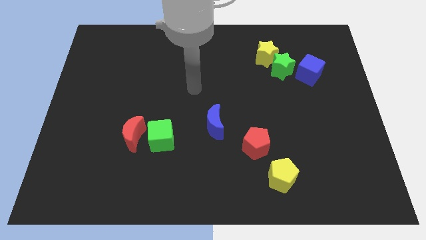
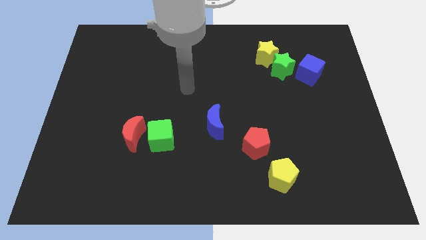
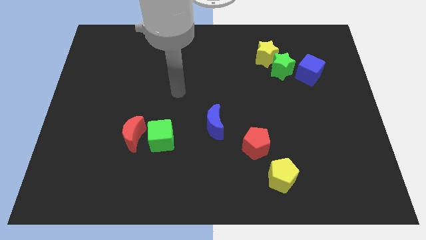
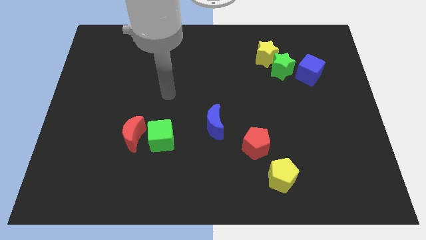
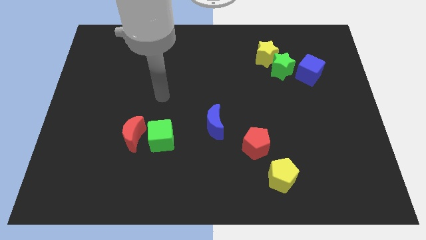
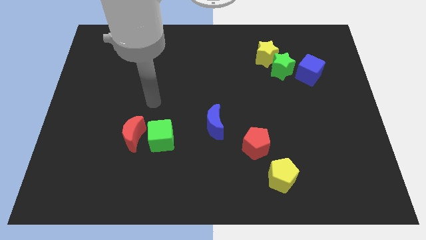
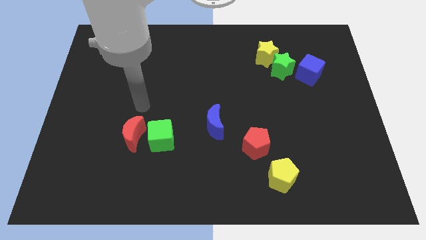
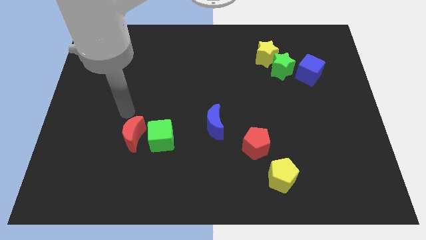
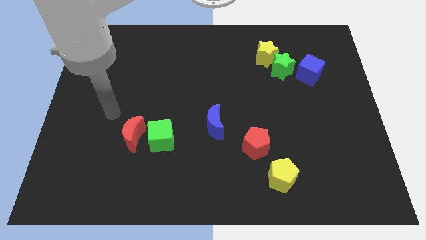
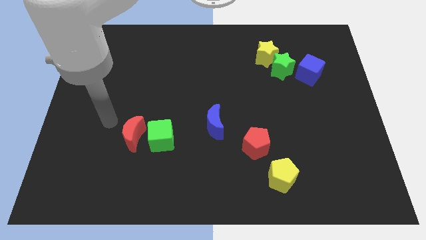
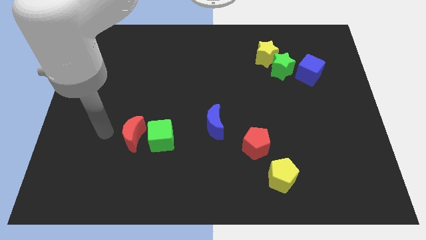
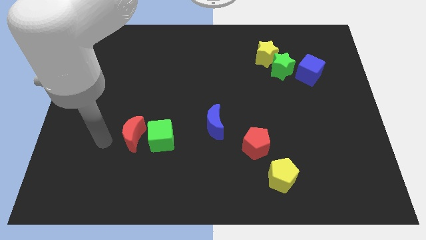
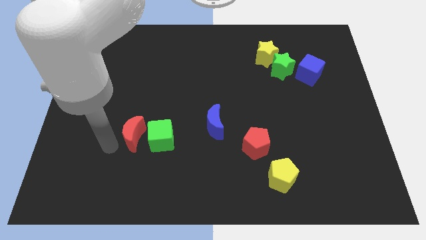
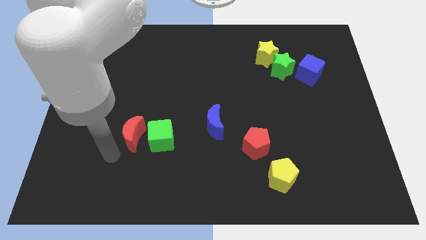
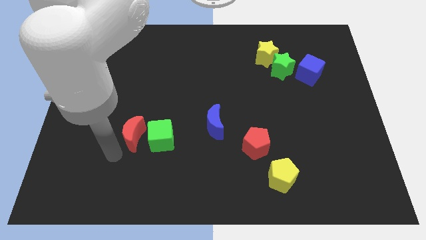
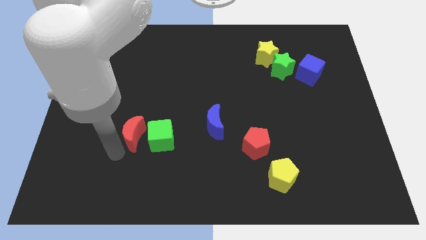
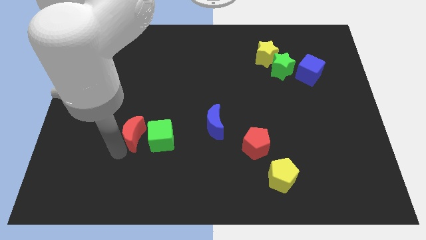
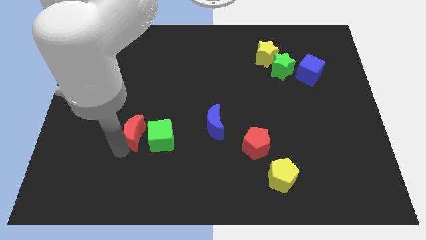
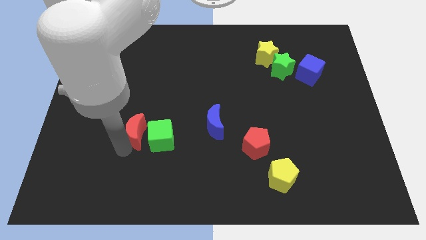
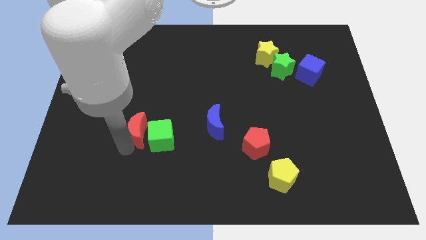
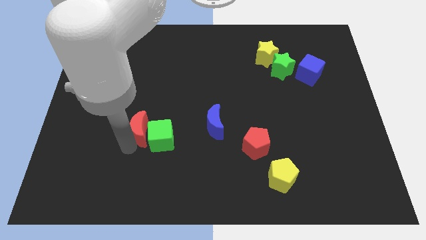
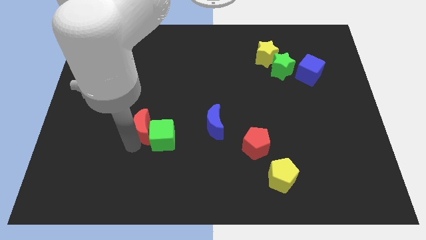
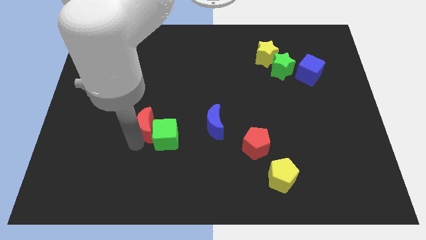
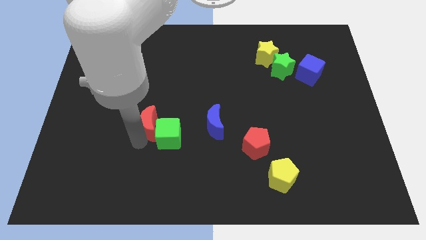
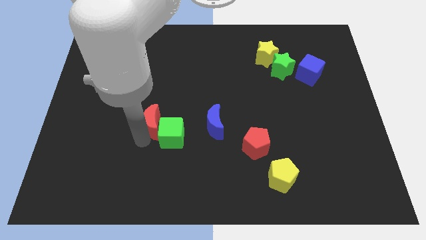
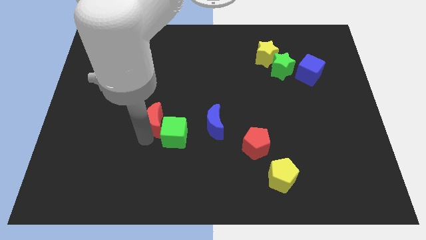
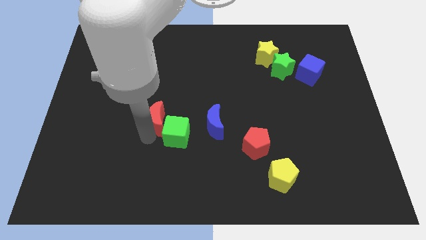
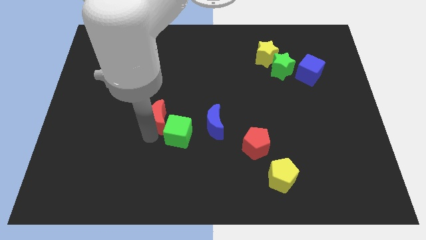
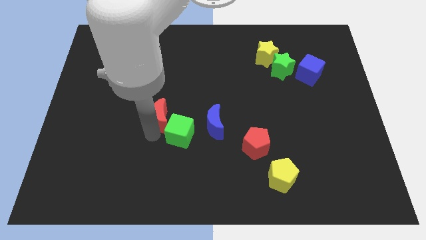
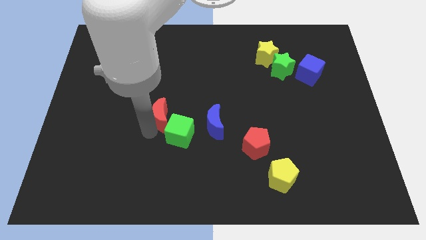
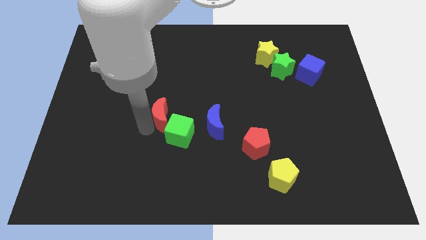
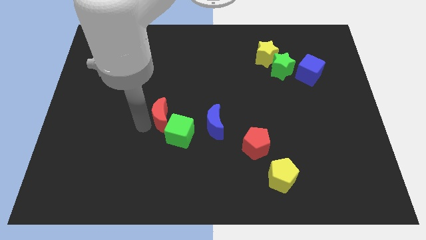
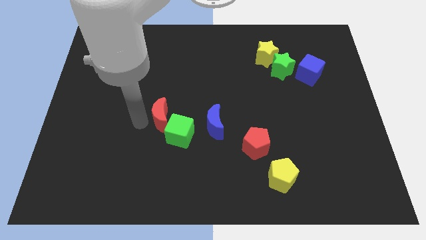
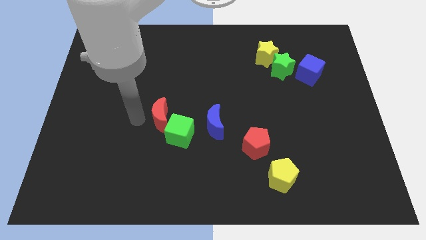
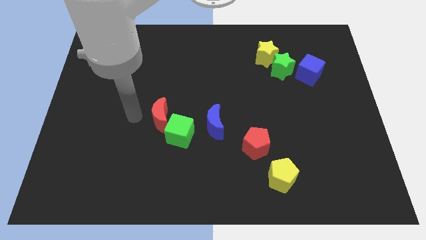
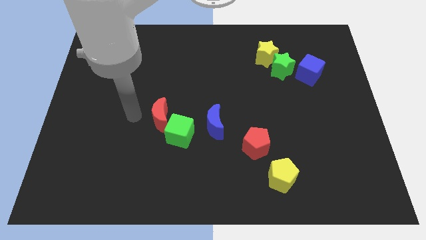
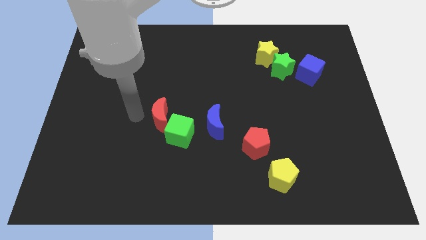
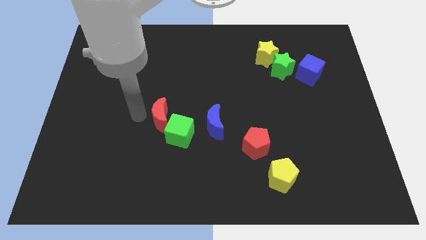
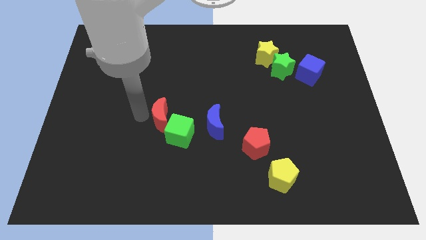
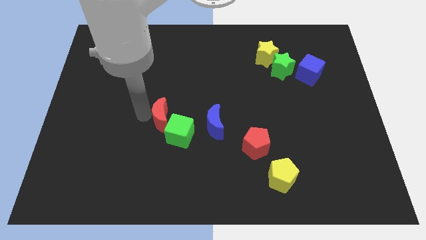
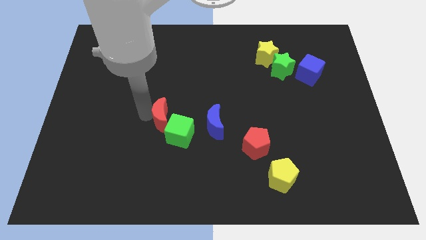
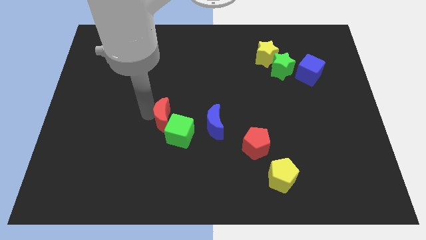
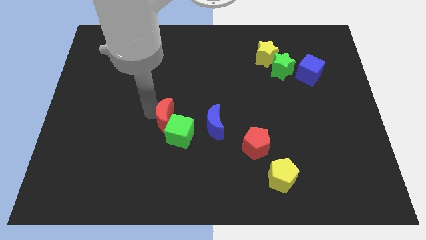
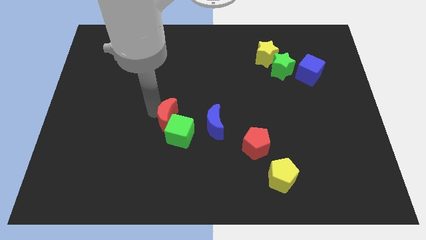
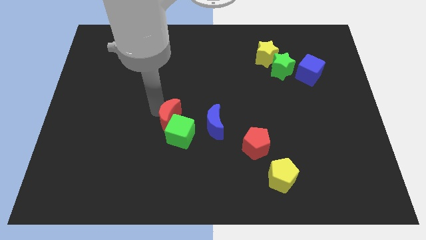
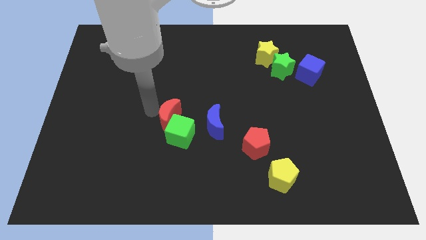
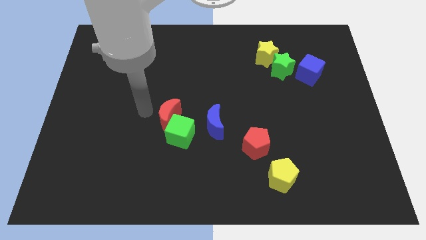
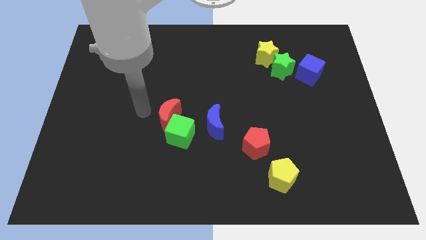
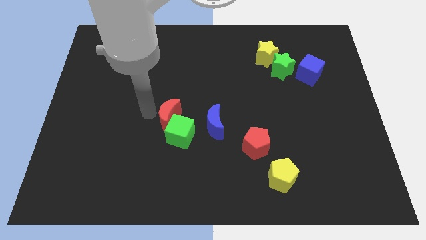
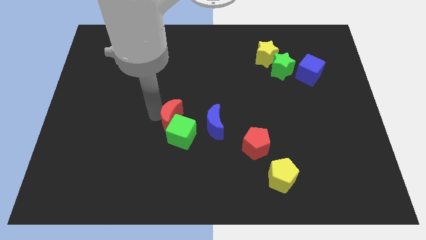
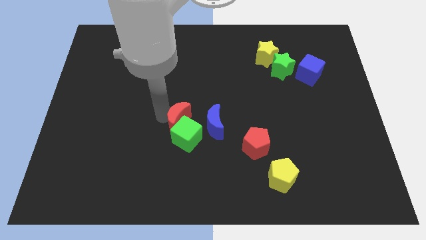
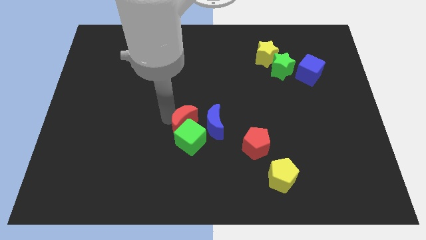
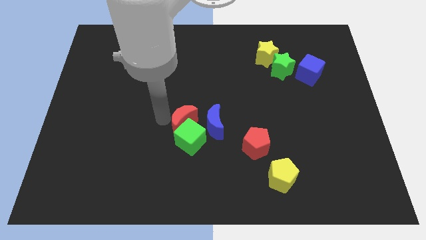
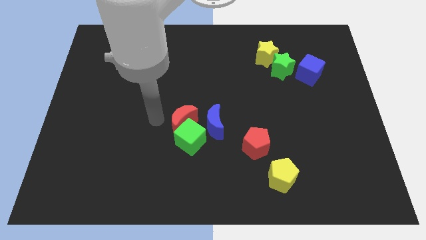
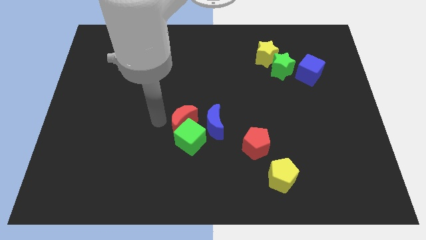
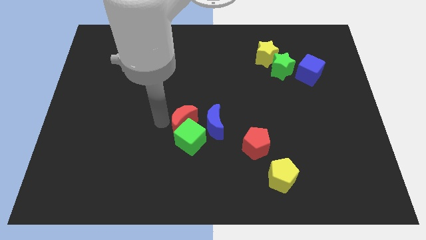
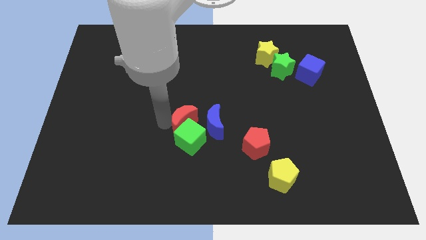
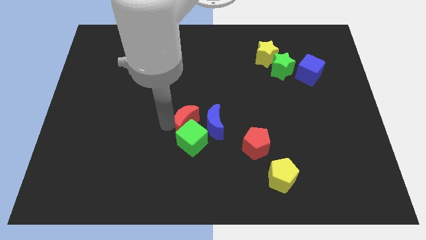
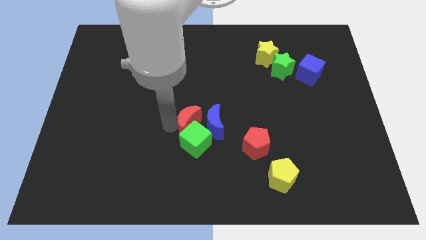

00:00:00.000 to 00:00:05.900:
push the red moon towards the blue moon

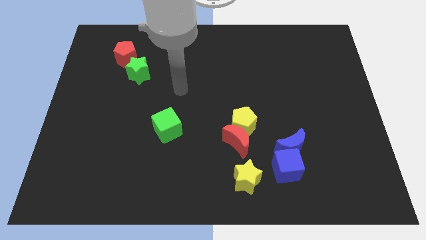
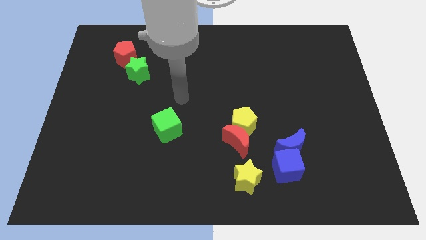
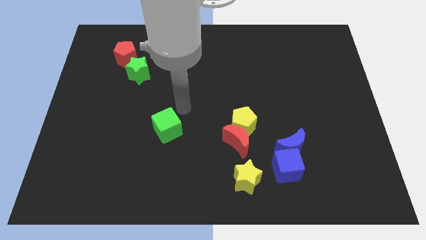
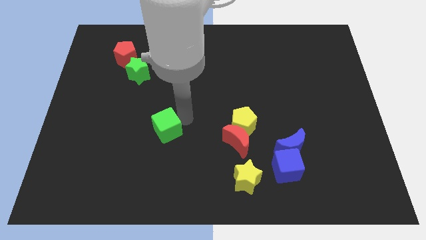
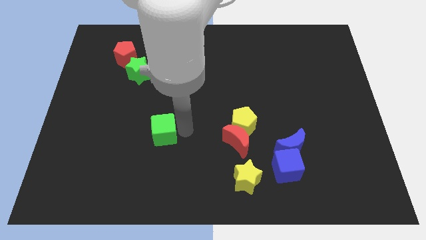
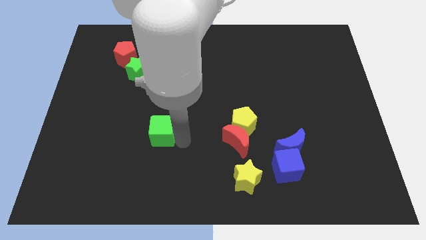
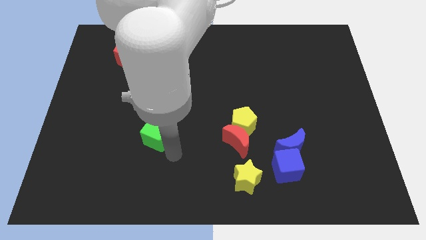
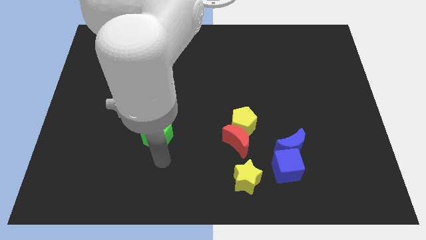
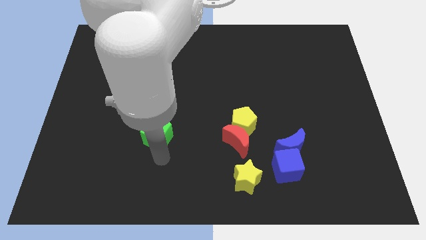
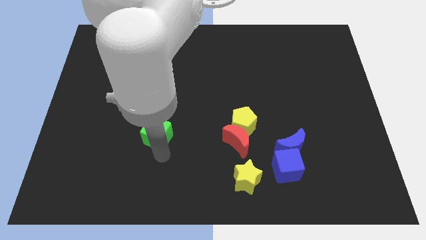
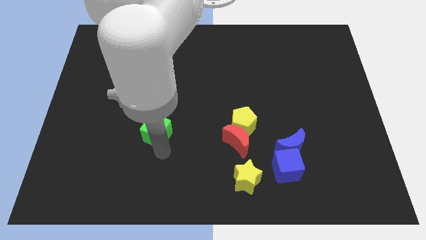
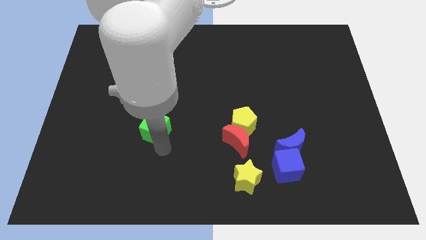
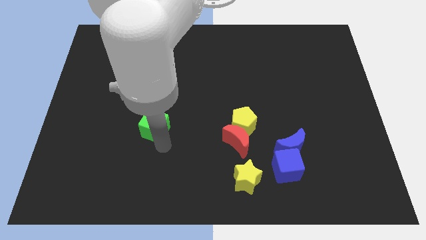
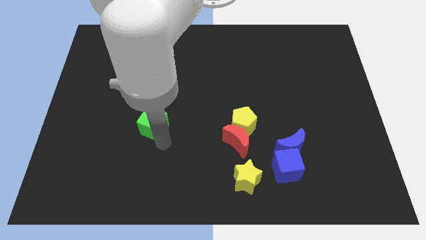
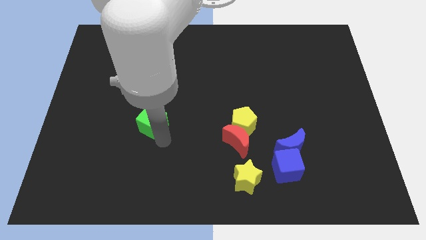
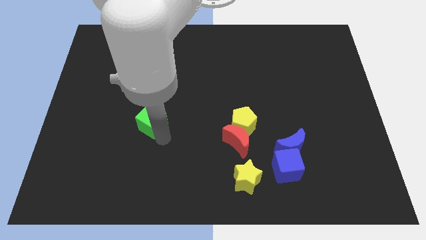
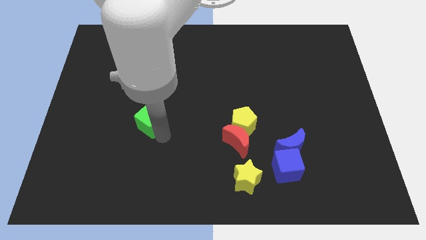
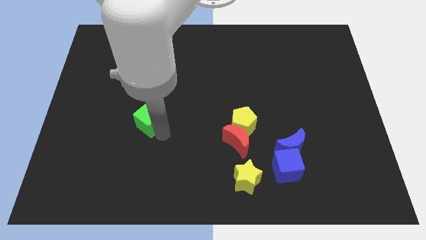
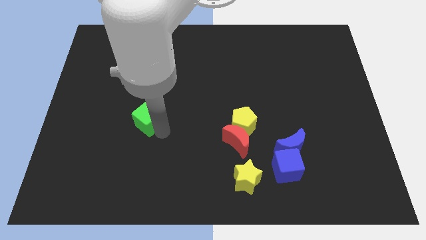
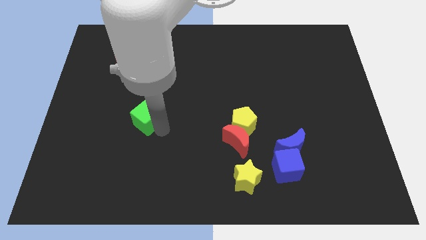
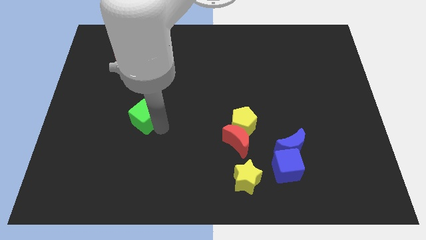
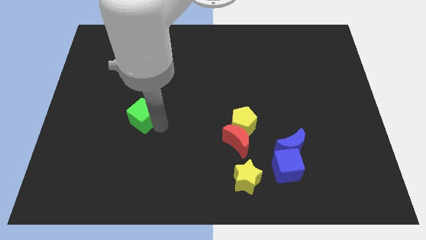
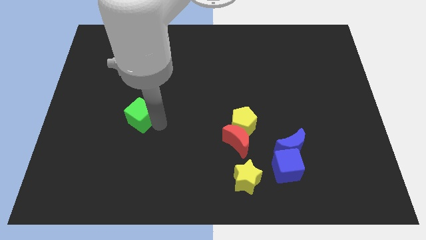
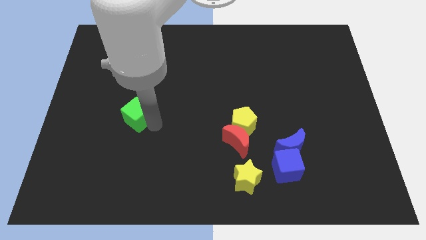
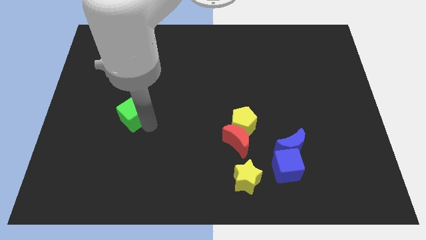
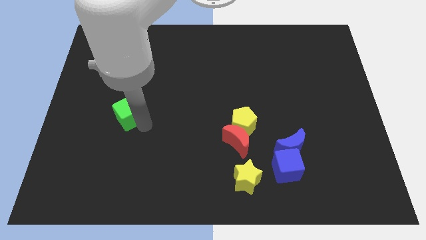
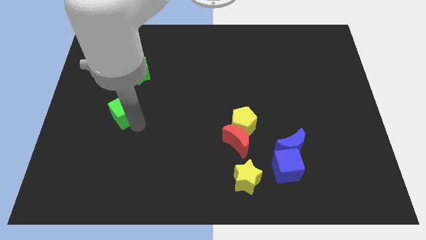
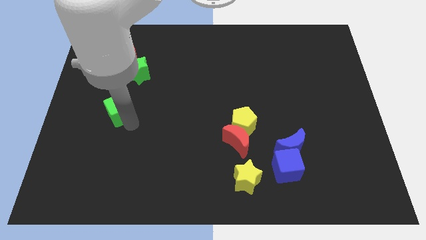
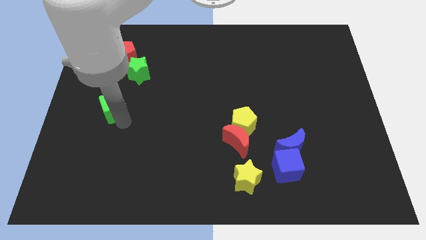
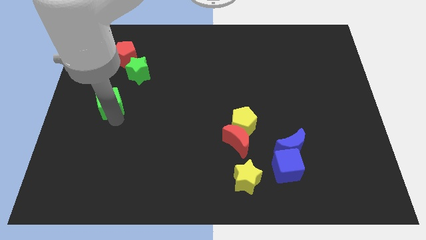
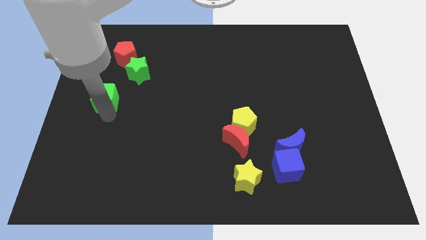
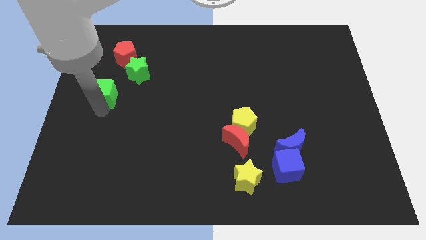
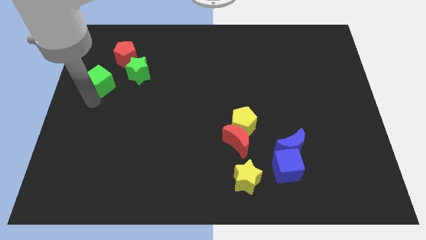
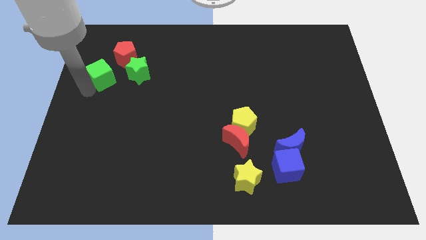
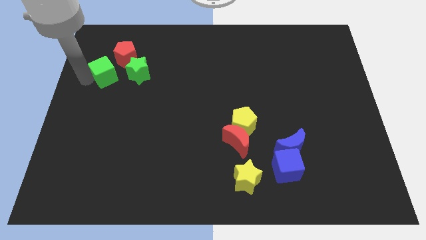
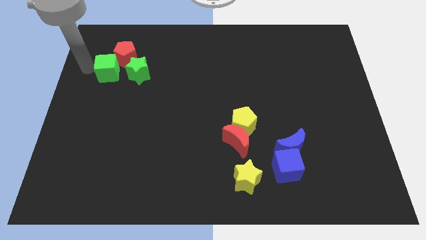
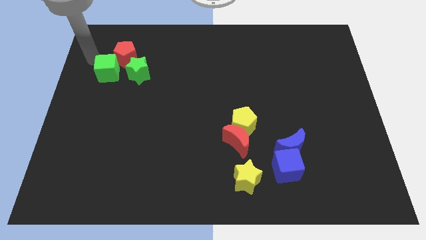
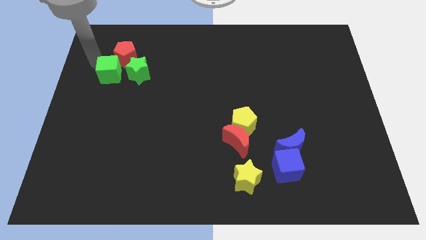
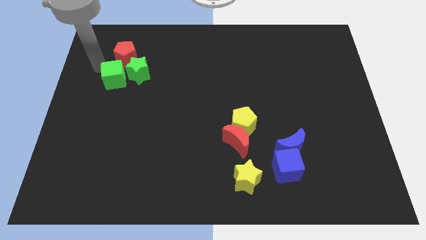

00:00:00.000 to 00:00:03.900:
push the green cube towards the green star
